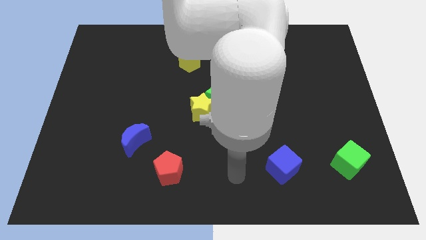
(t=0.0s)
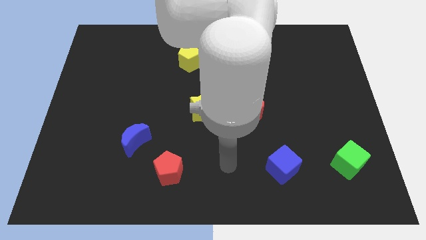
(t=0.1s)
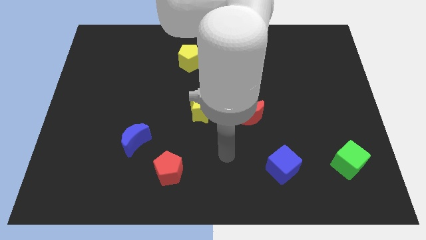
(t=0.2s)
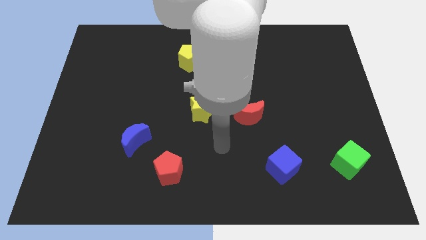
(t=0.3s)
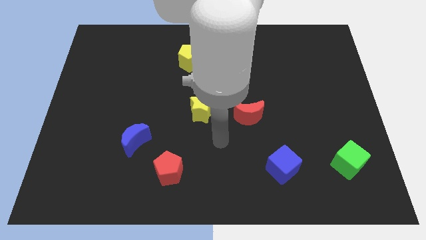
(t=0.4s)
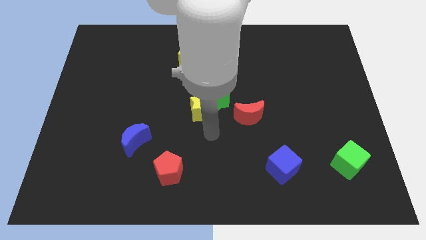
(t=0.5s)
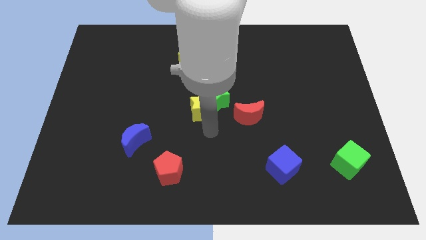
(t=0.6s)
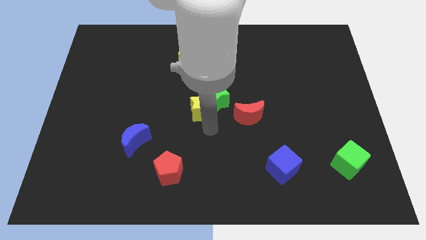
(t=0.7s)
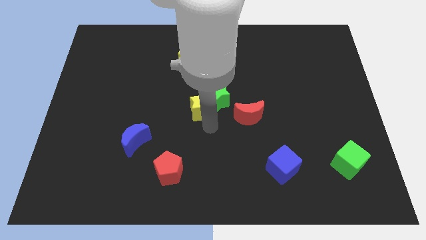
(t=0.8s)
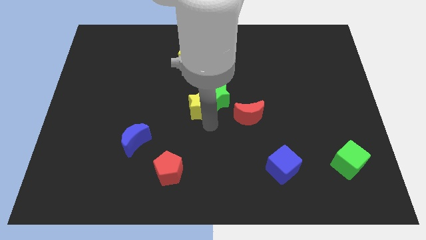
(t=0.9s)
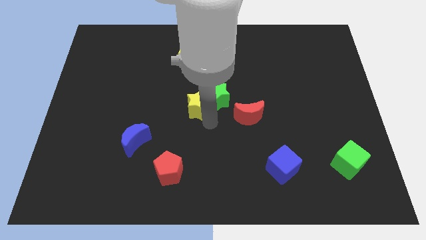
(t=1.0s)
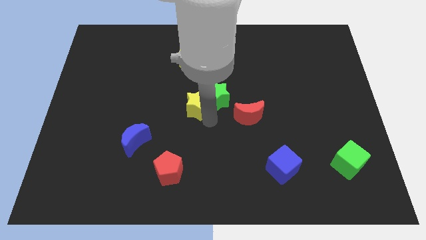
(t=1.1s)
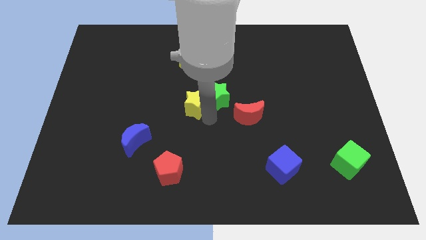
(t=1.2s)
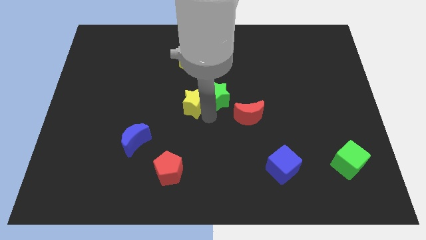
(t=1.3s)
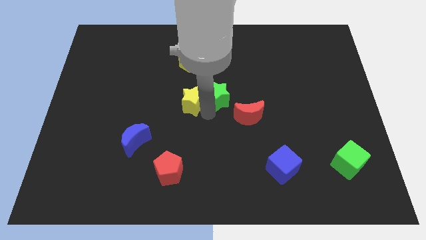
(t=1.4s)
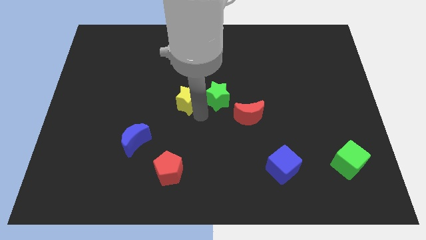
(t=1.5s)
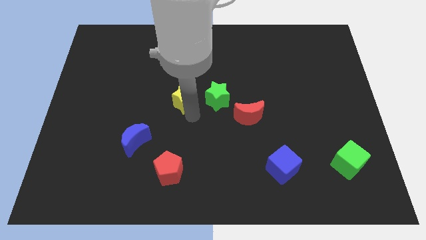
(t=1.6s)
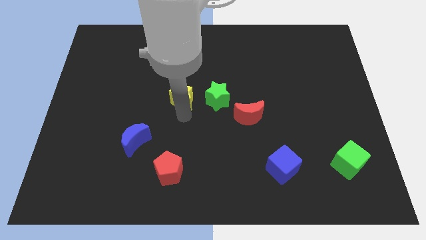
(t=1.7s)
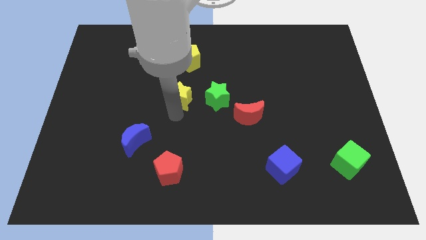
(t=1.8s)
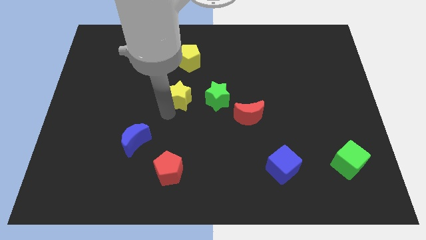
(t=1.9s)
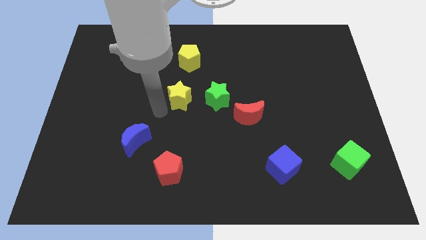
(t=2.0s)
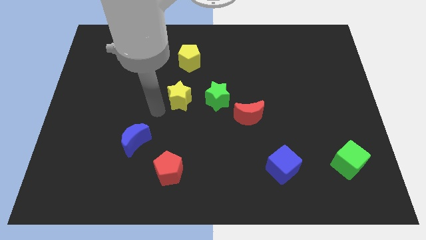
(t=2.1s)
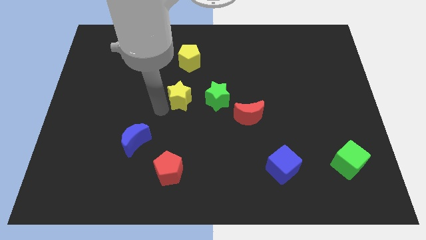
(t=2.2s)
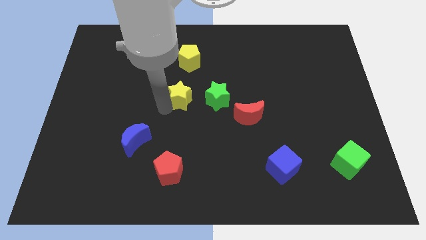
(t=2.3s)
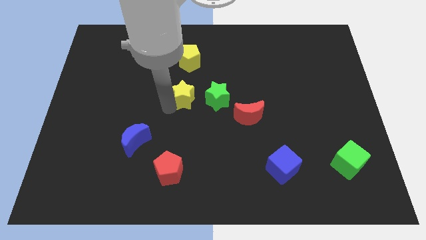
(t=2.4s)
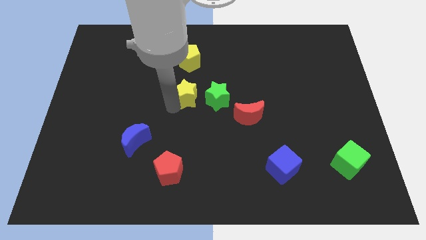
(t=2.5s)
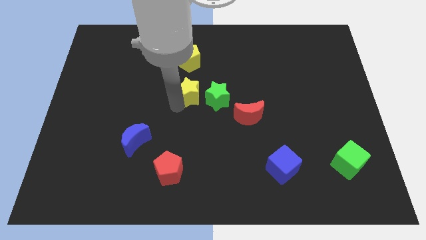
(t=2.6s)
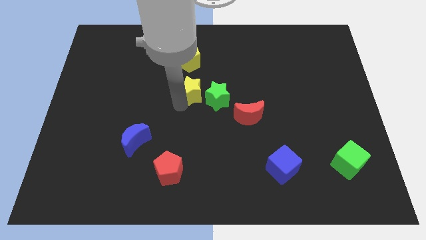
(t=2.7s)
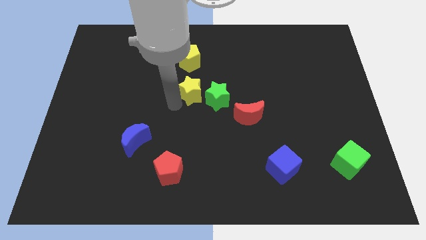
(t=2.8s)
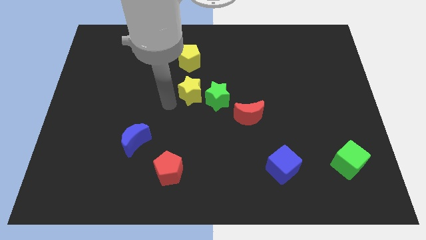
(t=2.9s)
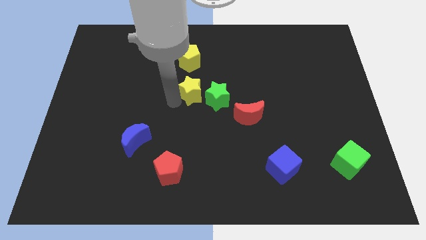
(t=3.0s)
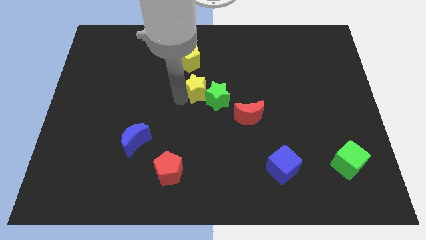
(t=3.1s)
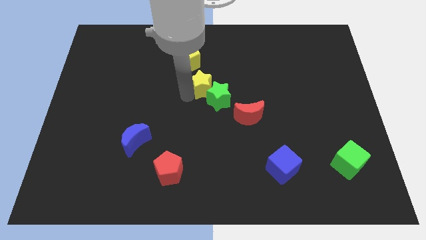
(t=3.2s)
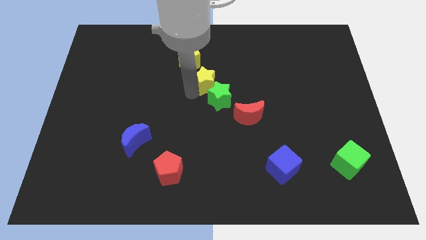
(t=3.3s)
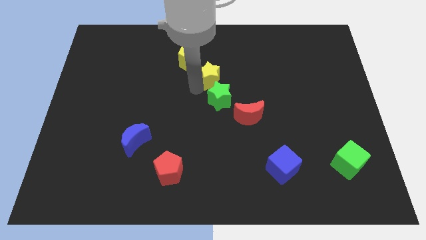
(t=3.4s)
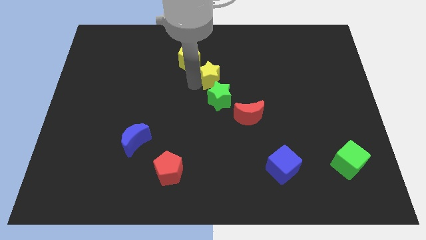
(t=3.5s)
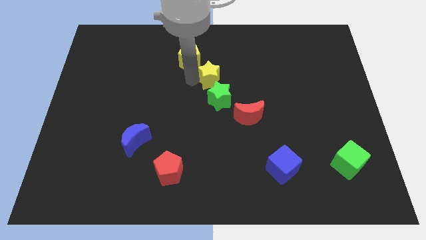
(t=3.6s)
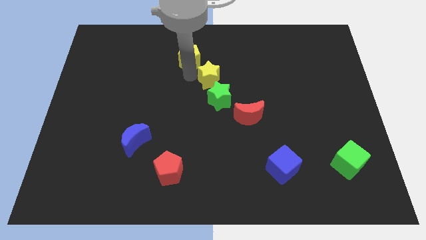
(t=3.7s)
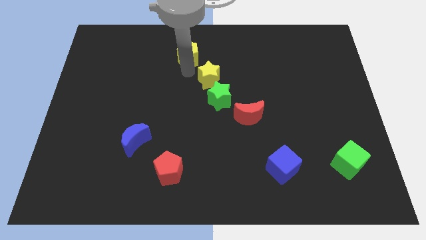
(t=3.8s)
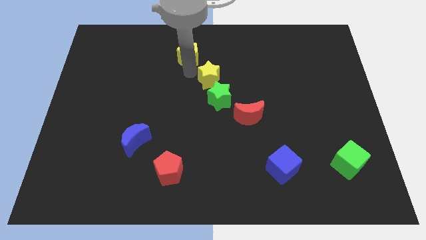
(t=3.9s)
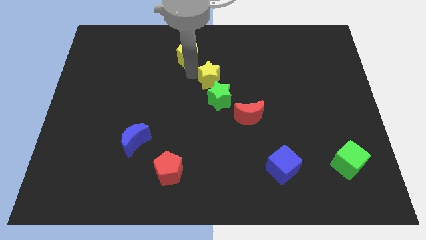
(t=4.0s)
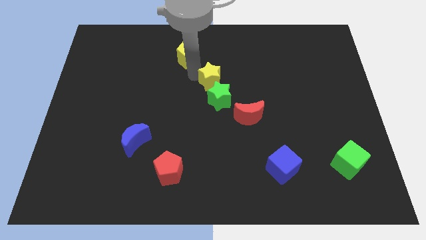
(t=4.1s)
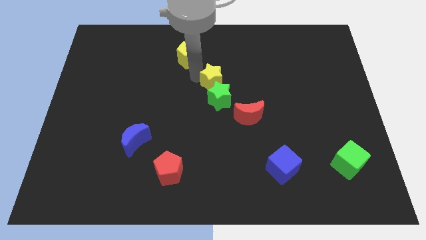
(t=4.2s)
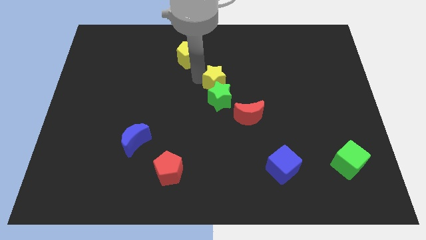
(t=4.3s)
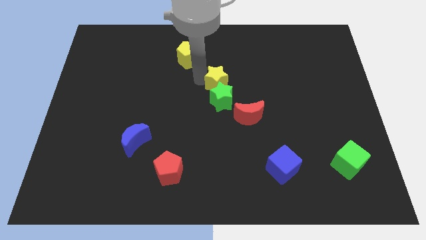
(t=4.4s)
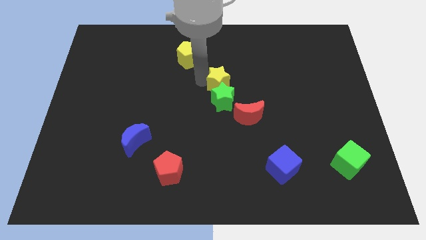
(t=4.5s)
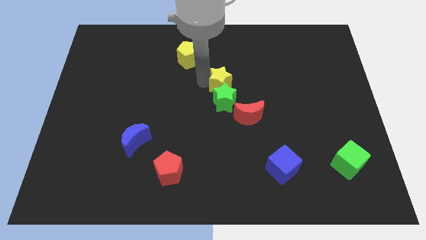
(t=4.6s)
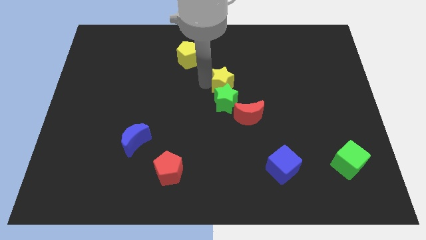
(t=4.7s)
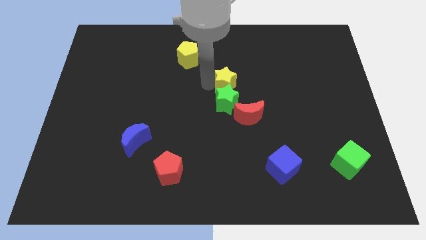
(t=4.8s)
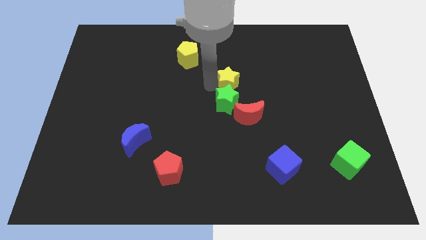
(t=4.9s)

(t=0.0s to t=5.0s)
slide the yellow star to the top side of the red moon

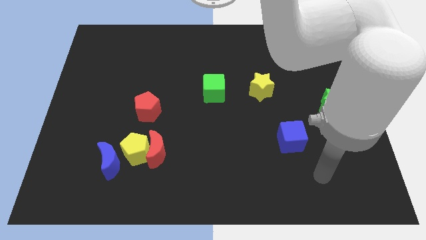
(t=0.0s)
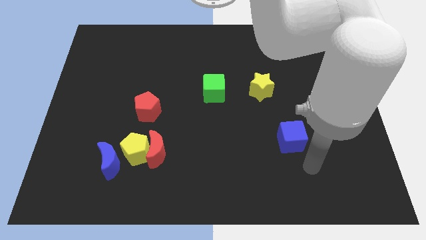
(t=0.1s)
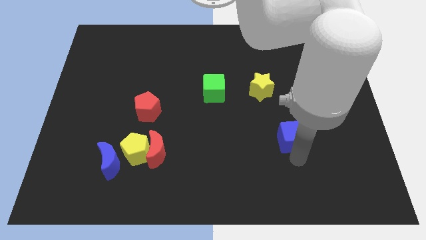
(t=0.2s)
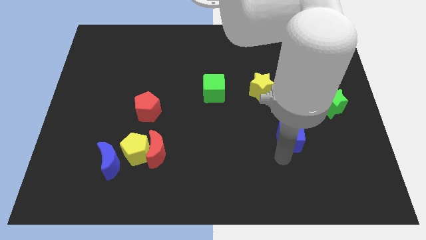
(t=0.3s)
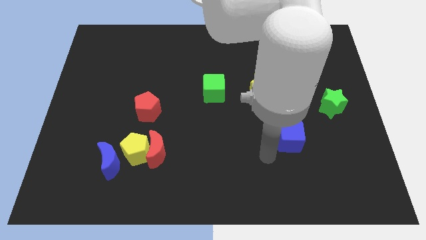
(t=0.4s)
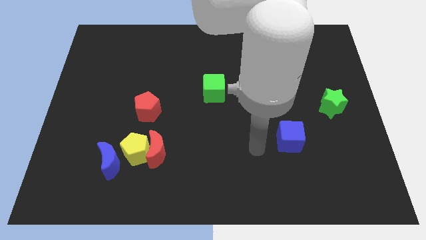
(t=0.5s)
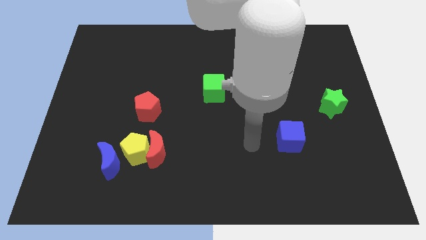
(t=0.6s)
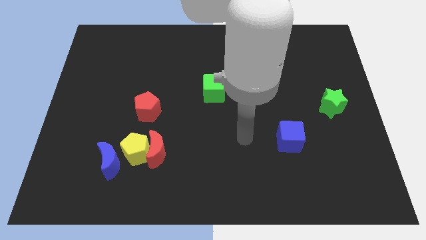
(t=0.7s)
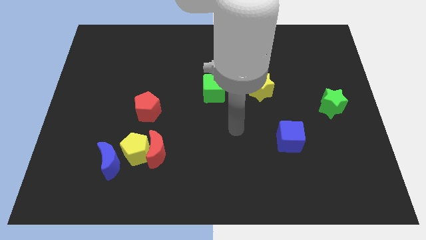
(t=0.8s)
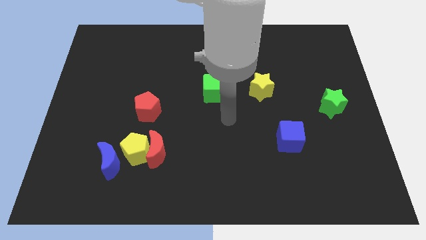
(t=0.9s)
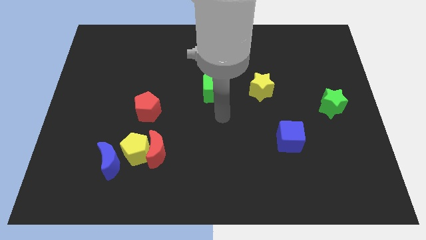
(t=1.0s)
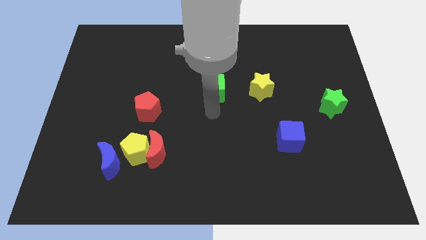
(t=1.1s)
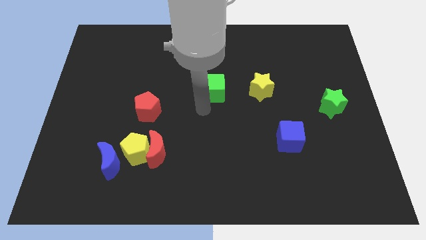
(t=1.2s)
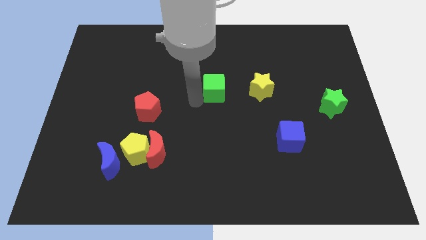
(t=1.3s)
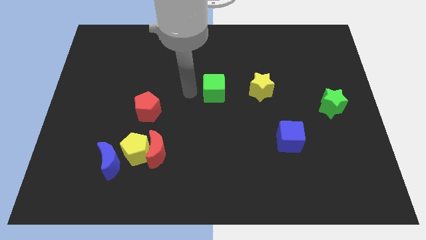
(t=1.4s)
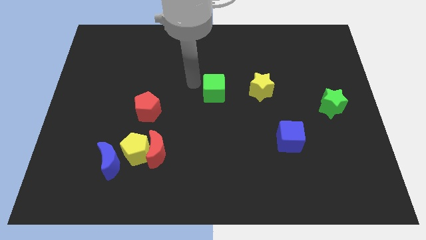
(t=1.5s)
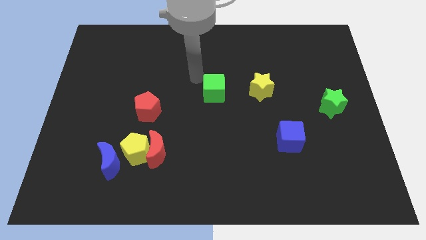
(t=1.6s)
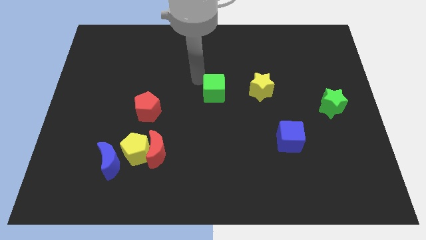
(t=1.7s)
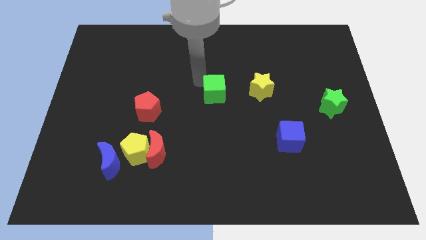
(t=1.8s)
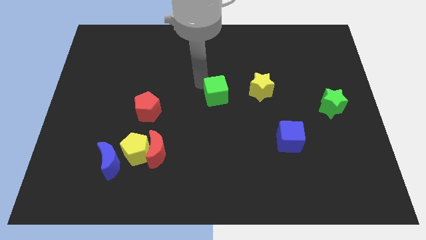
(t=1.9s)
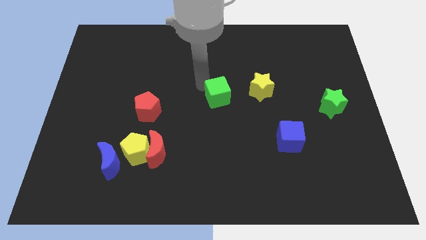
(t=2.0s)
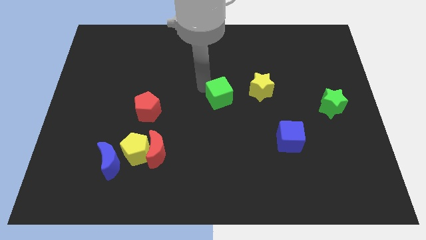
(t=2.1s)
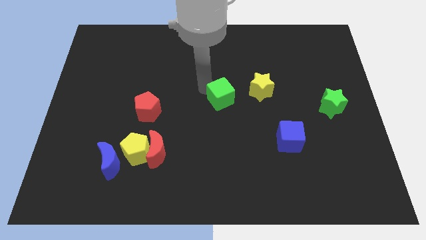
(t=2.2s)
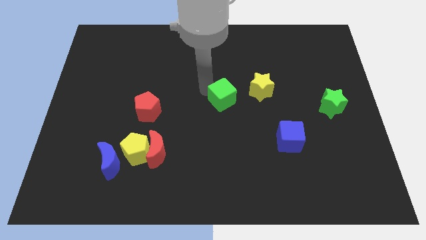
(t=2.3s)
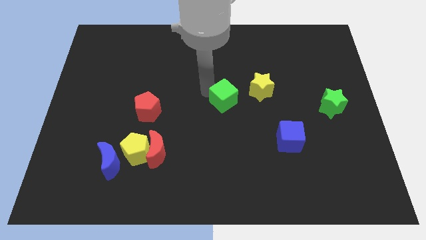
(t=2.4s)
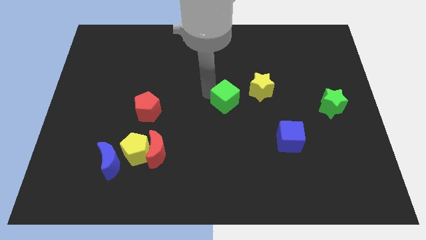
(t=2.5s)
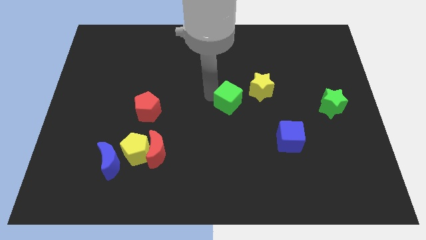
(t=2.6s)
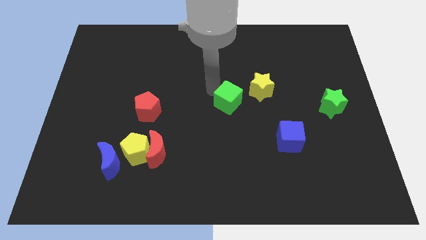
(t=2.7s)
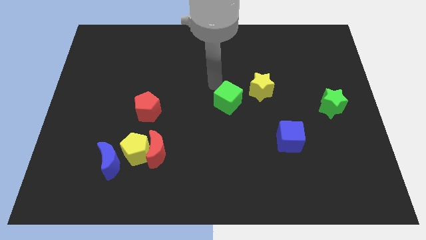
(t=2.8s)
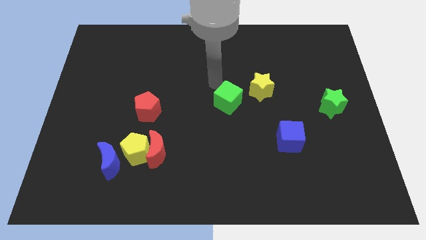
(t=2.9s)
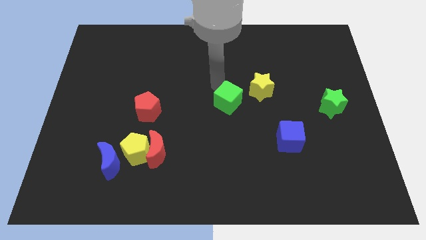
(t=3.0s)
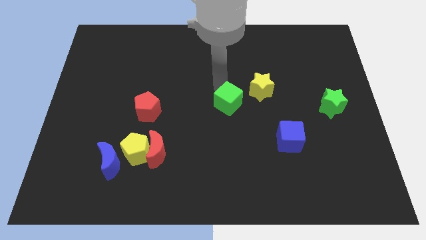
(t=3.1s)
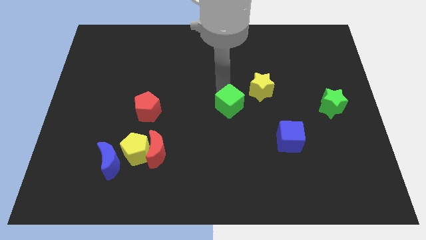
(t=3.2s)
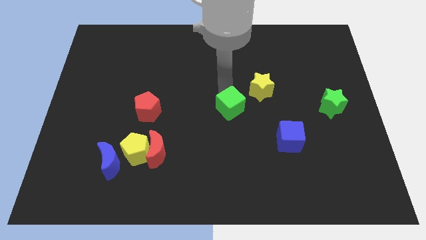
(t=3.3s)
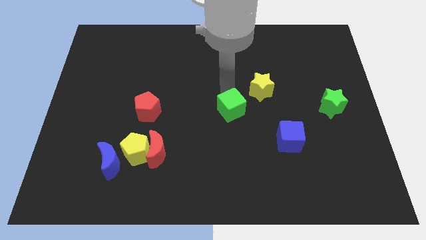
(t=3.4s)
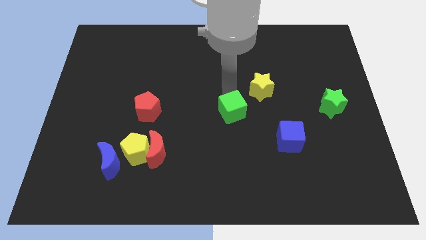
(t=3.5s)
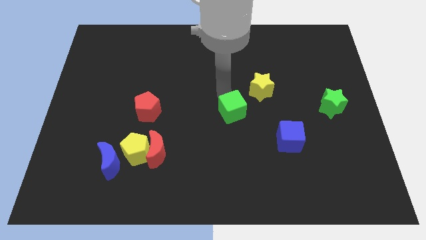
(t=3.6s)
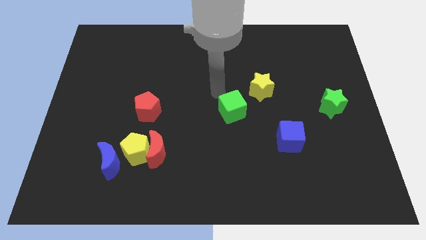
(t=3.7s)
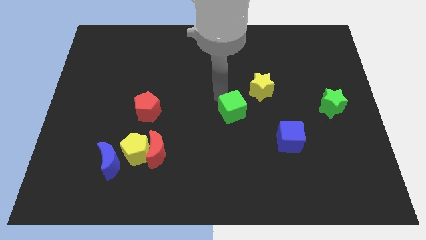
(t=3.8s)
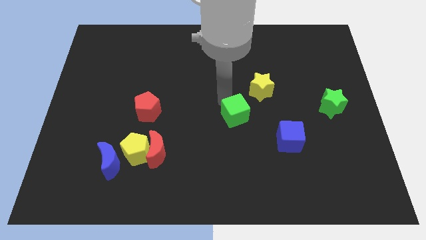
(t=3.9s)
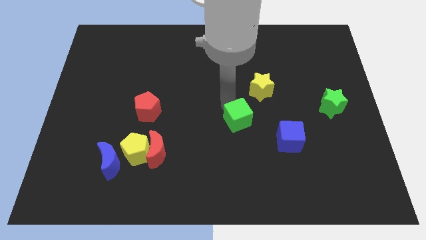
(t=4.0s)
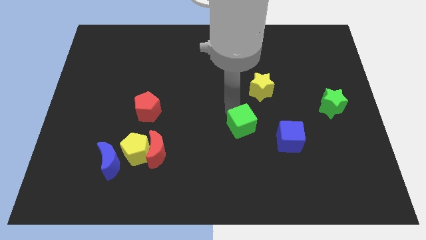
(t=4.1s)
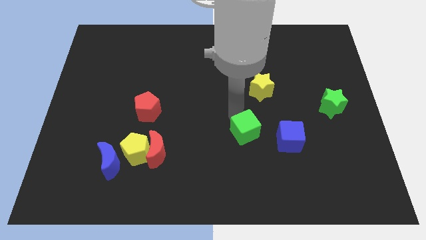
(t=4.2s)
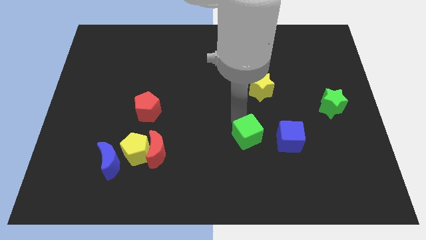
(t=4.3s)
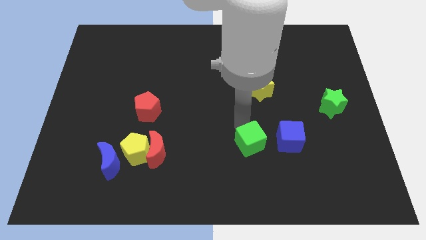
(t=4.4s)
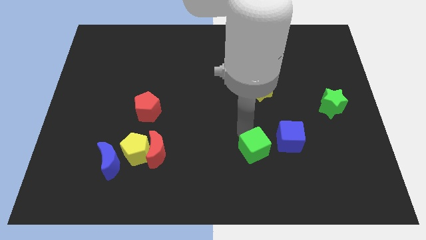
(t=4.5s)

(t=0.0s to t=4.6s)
push the green cube to the bottom left side of the blue cube
